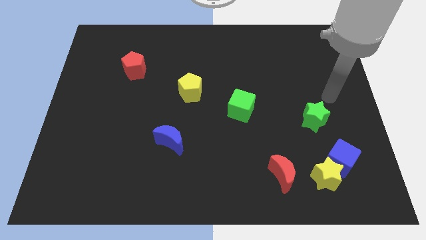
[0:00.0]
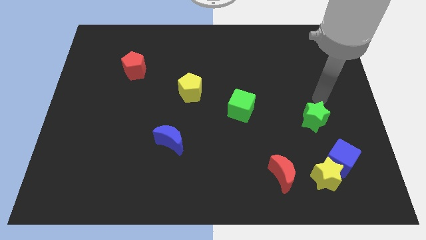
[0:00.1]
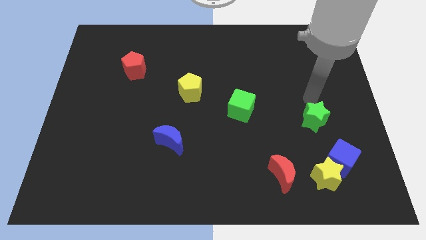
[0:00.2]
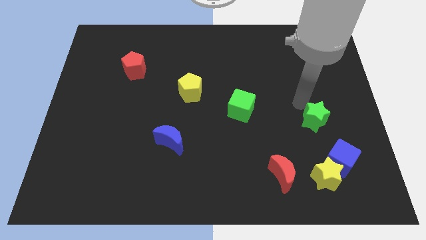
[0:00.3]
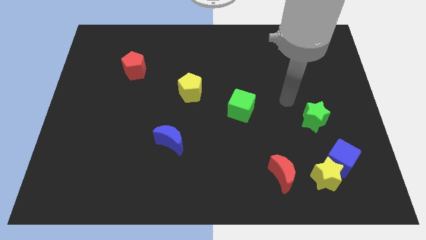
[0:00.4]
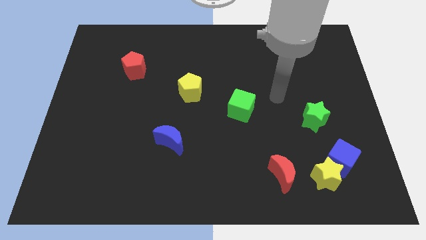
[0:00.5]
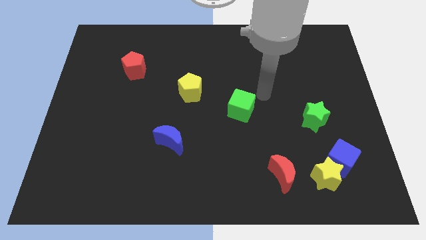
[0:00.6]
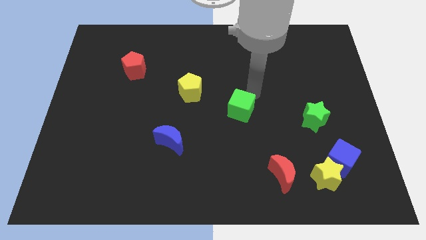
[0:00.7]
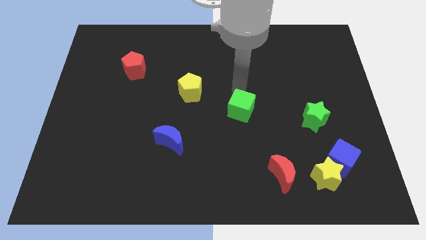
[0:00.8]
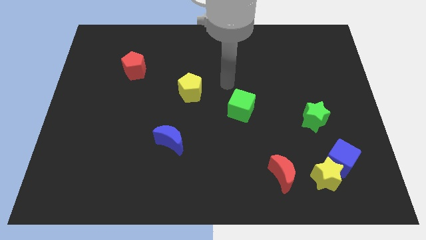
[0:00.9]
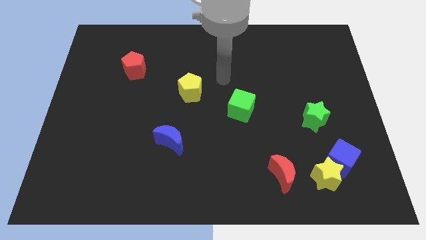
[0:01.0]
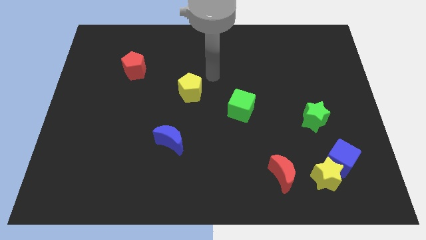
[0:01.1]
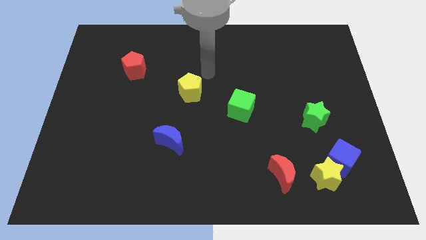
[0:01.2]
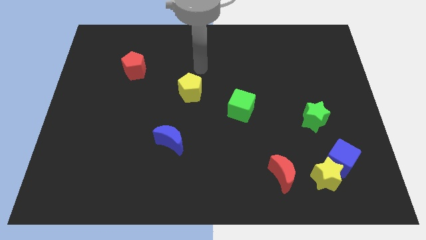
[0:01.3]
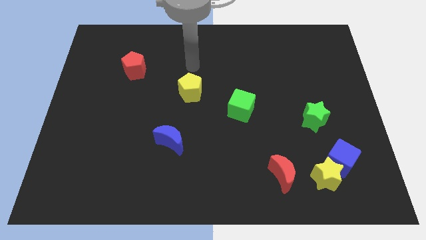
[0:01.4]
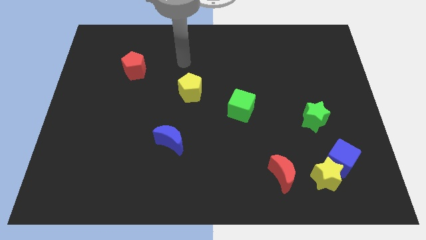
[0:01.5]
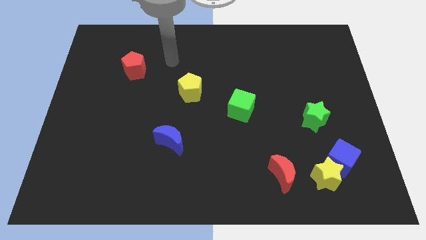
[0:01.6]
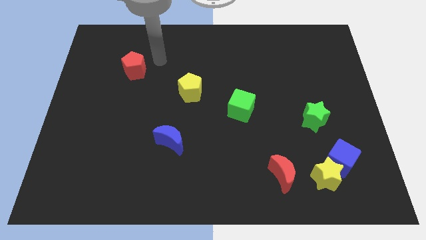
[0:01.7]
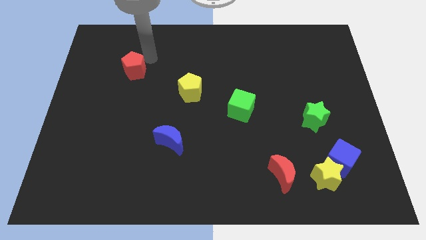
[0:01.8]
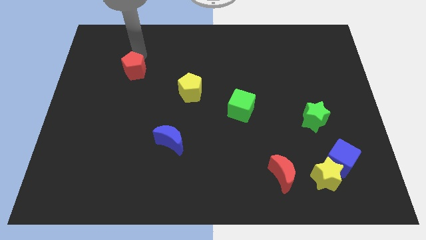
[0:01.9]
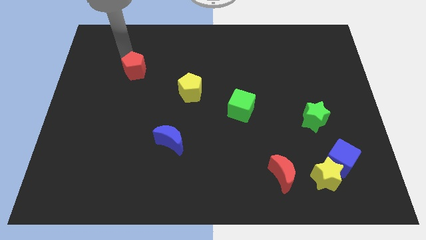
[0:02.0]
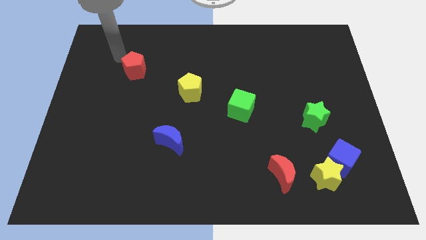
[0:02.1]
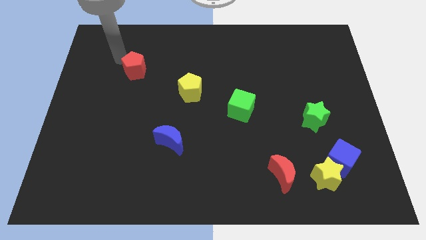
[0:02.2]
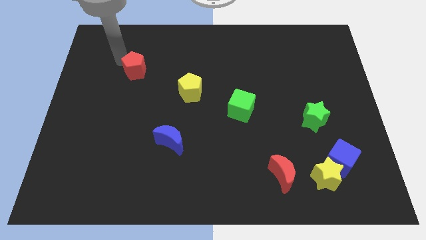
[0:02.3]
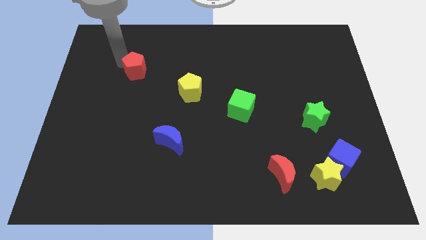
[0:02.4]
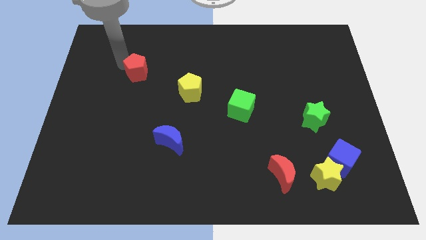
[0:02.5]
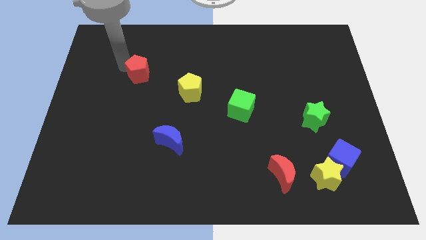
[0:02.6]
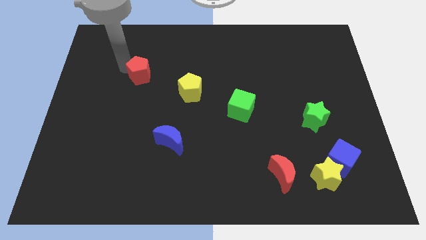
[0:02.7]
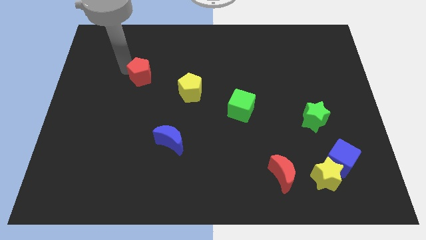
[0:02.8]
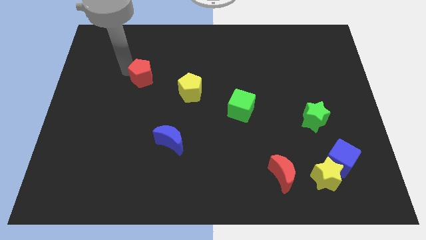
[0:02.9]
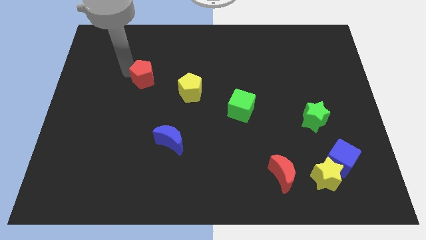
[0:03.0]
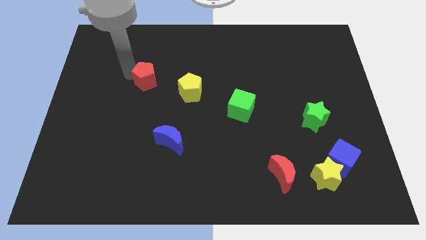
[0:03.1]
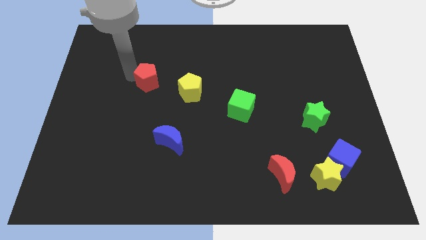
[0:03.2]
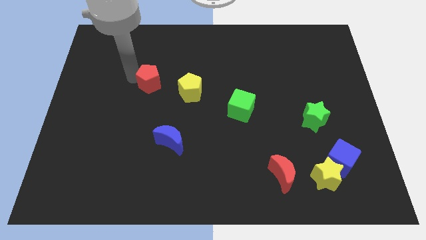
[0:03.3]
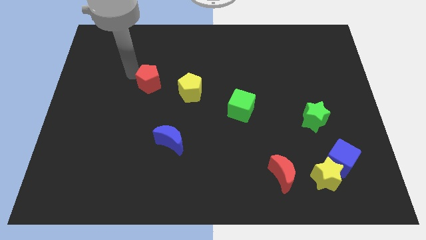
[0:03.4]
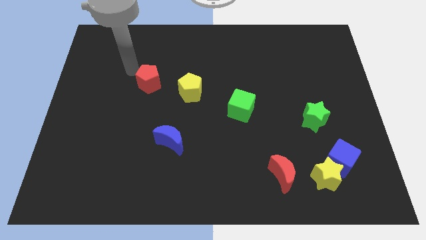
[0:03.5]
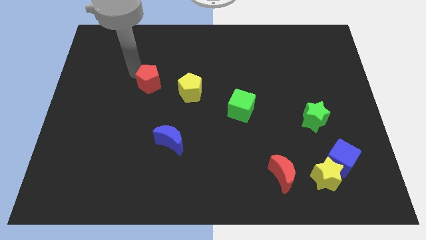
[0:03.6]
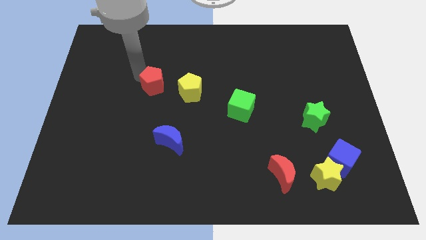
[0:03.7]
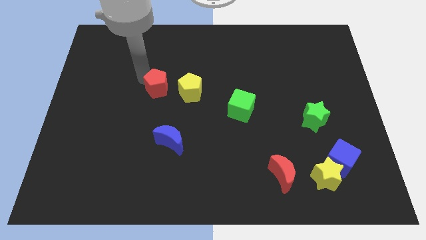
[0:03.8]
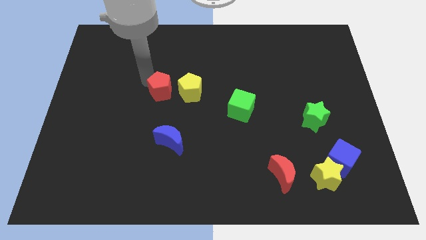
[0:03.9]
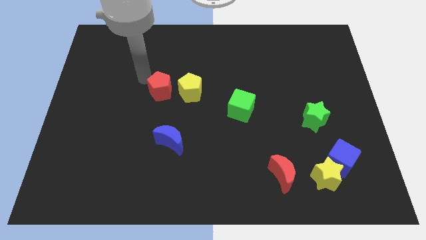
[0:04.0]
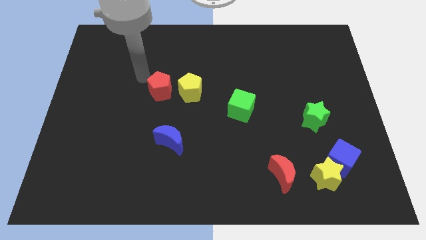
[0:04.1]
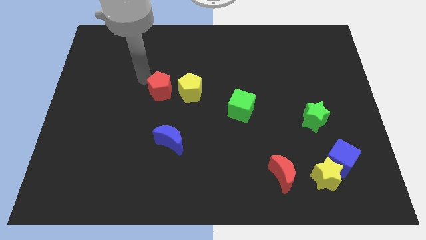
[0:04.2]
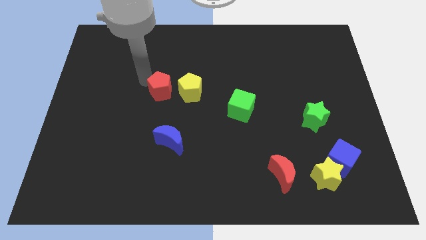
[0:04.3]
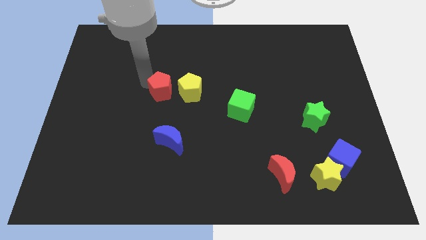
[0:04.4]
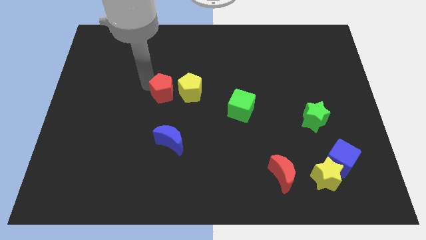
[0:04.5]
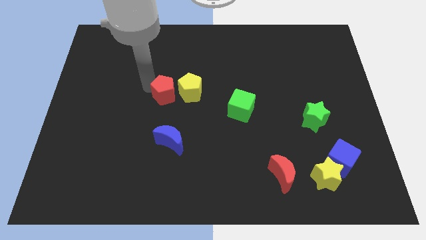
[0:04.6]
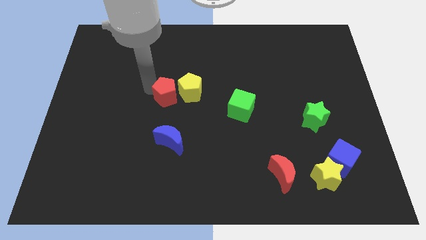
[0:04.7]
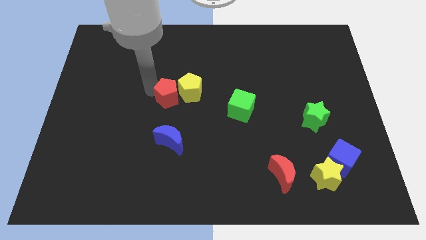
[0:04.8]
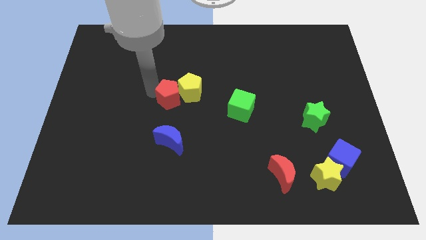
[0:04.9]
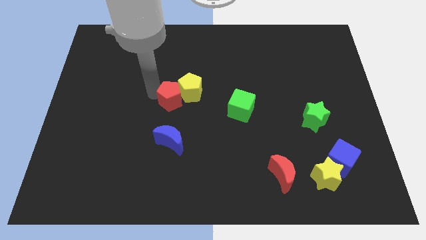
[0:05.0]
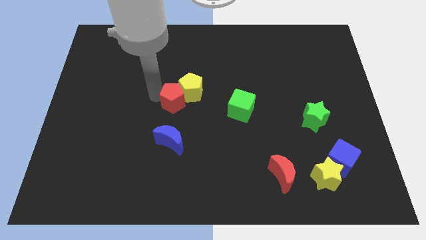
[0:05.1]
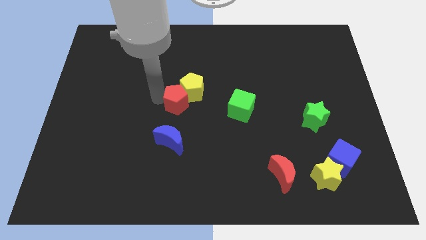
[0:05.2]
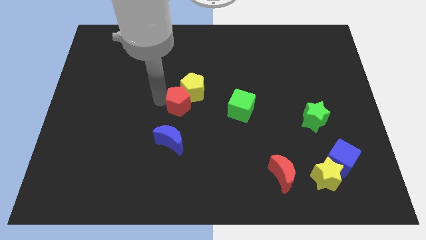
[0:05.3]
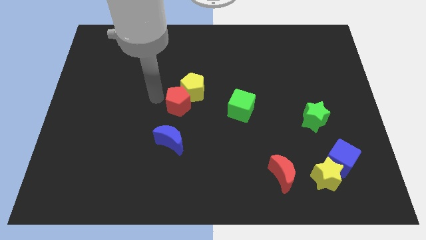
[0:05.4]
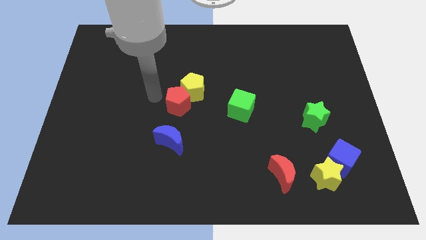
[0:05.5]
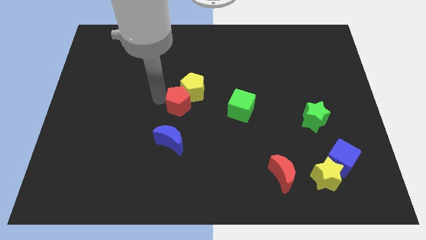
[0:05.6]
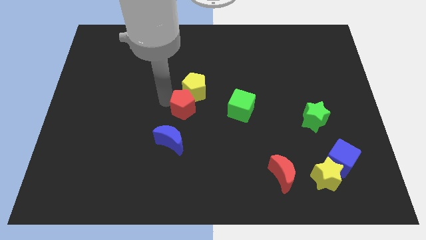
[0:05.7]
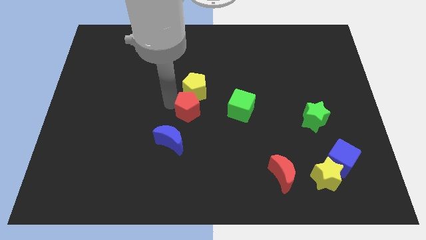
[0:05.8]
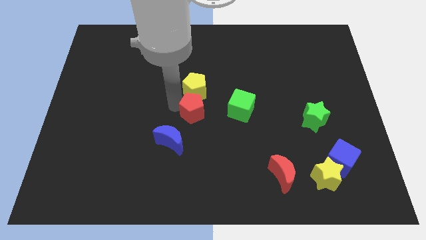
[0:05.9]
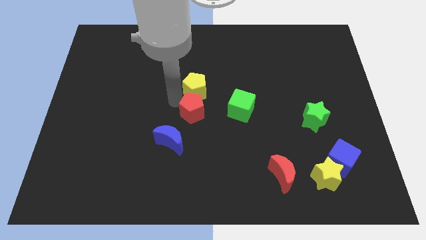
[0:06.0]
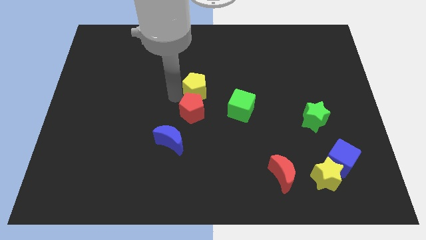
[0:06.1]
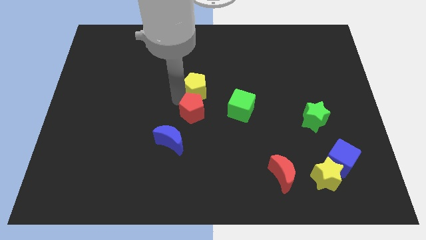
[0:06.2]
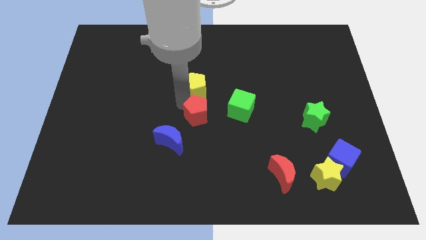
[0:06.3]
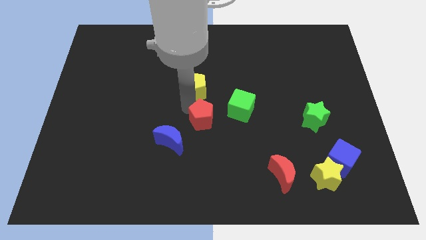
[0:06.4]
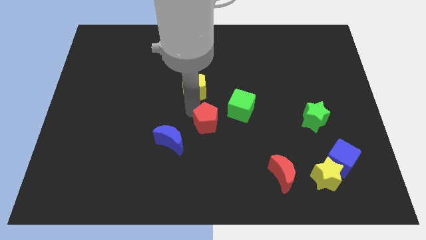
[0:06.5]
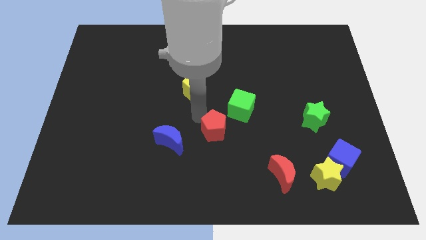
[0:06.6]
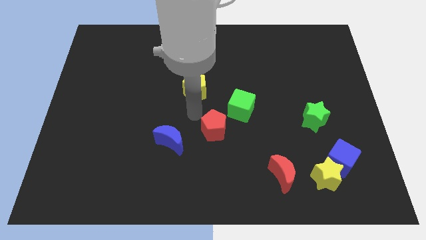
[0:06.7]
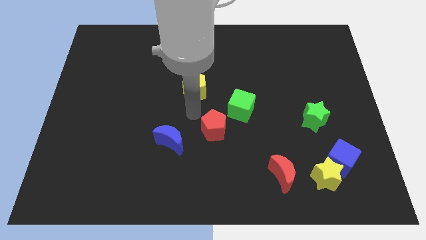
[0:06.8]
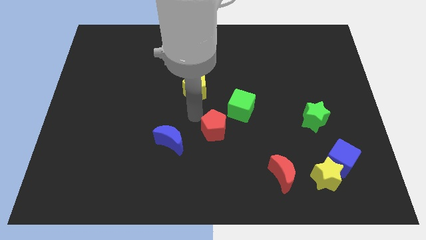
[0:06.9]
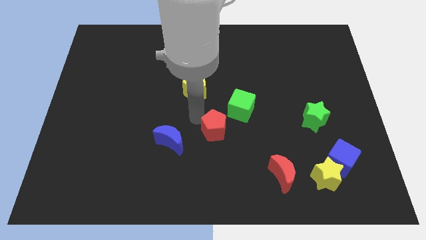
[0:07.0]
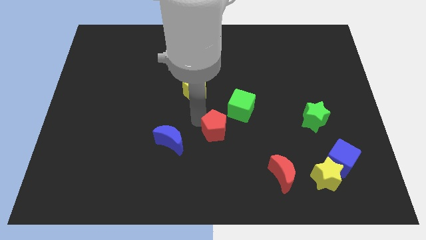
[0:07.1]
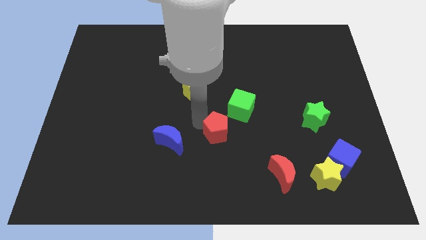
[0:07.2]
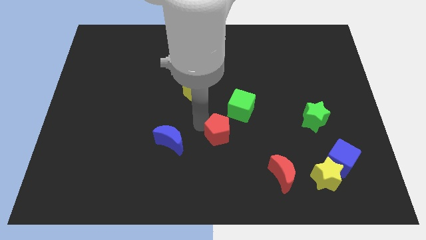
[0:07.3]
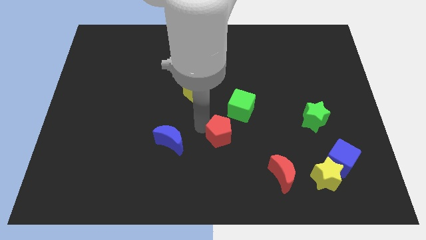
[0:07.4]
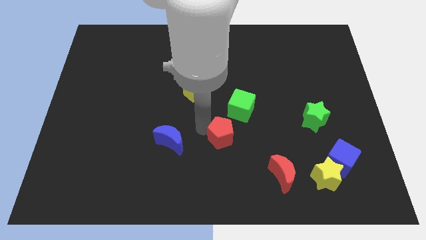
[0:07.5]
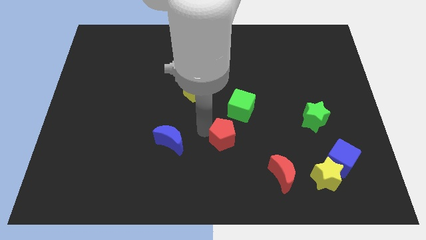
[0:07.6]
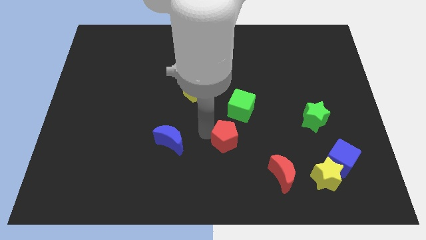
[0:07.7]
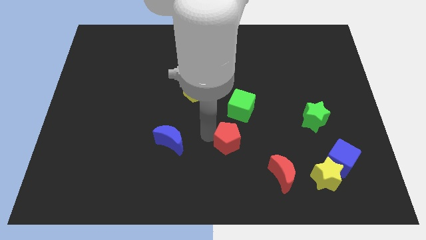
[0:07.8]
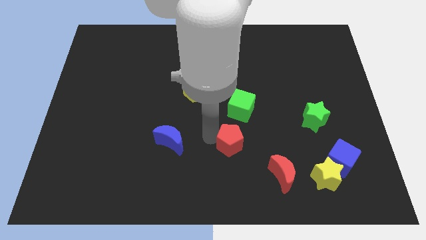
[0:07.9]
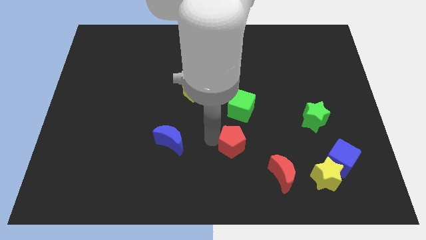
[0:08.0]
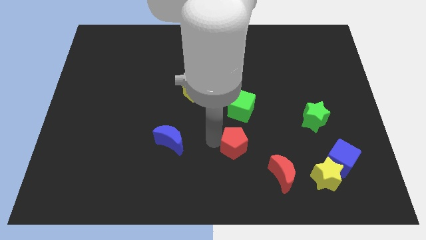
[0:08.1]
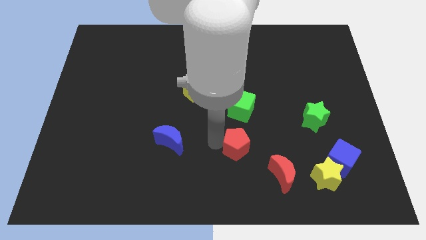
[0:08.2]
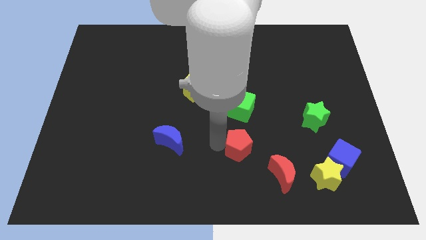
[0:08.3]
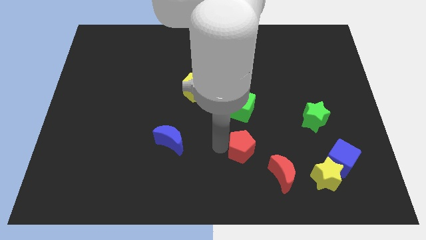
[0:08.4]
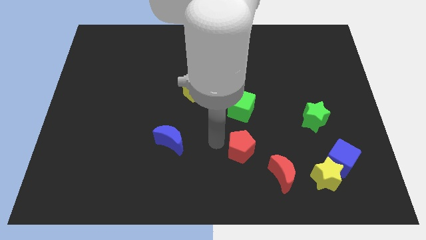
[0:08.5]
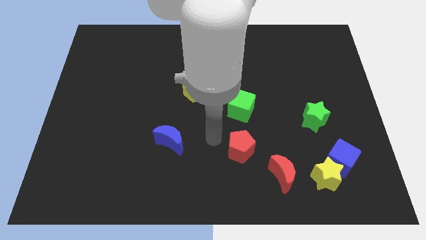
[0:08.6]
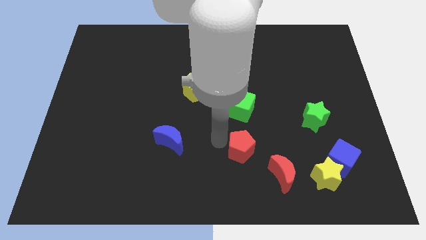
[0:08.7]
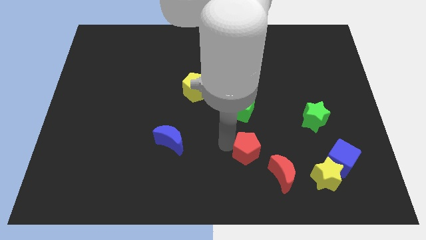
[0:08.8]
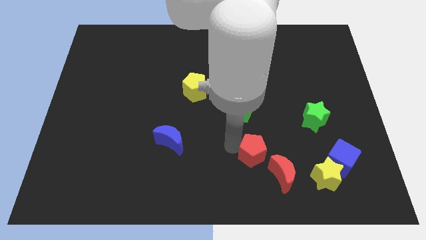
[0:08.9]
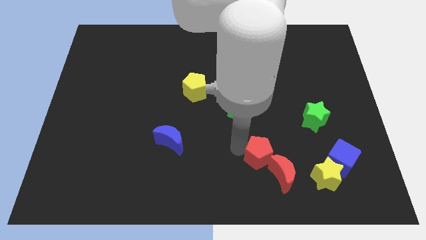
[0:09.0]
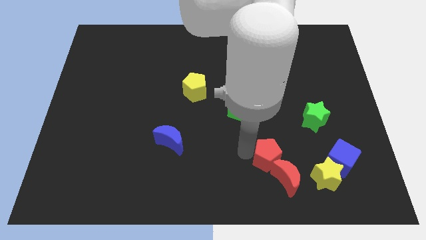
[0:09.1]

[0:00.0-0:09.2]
push the red pentagon left of the blue cube
